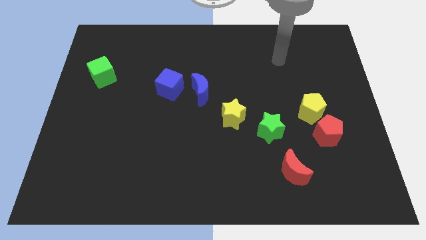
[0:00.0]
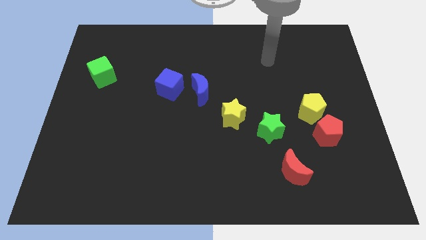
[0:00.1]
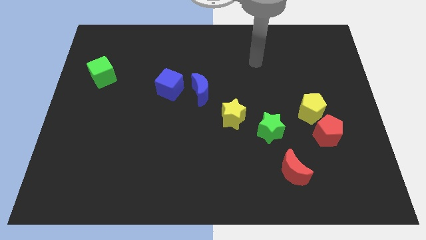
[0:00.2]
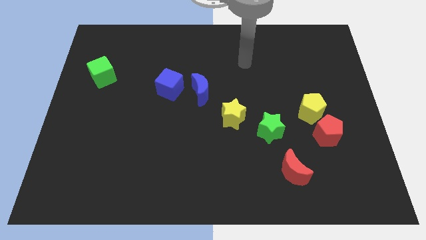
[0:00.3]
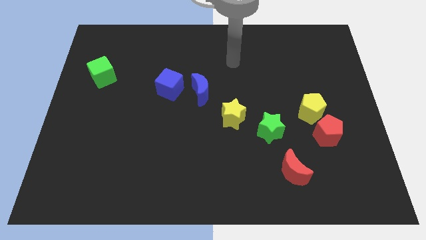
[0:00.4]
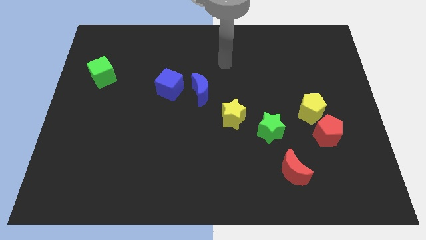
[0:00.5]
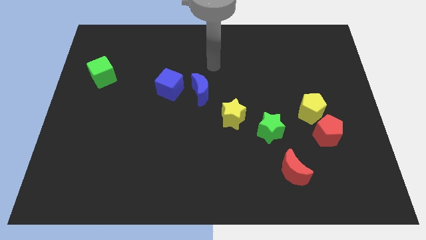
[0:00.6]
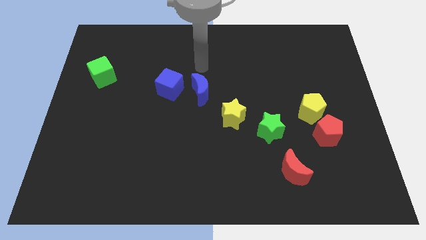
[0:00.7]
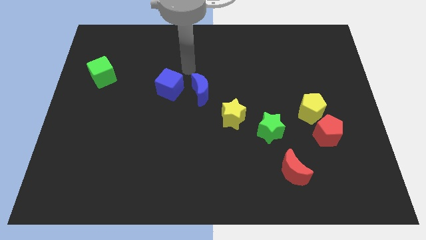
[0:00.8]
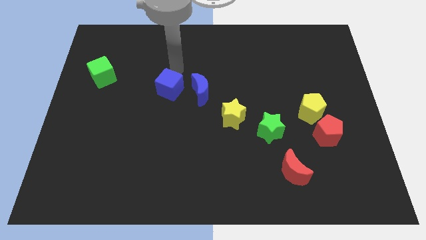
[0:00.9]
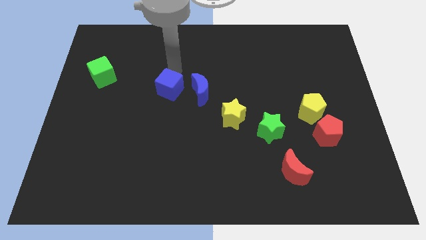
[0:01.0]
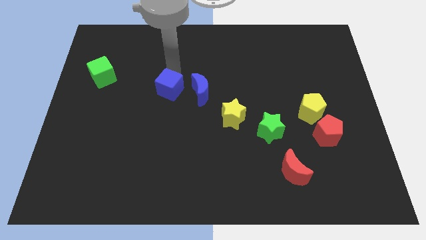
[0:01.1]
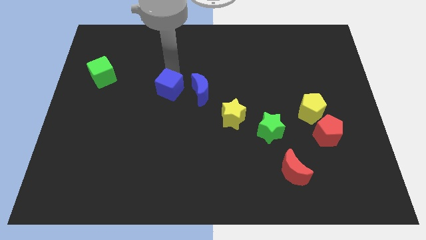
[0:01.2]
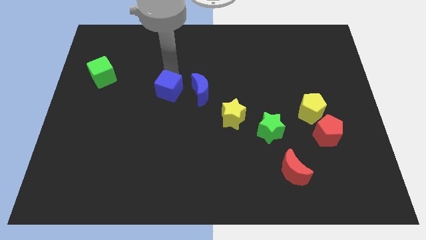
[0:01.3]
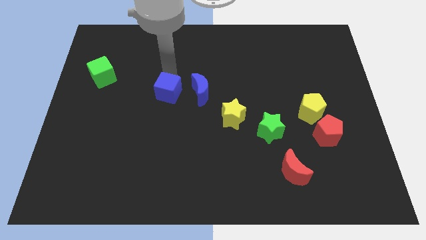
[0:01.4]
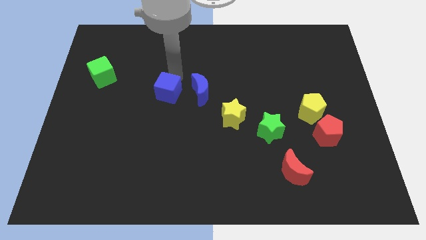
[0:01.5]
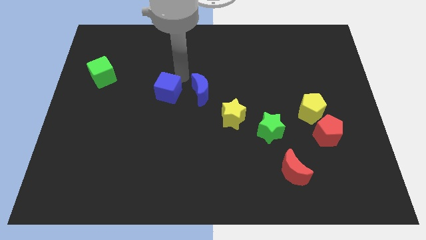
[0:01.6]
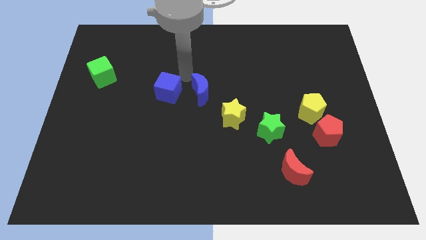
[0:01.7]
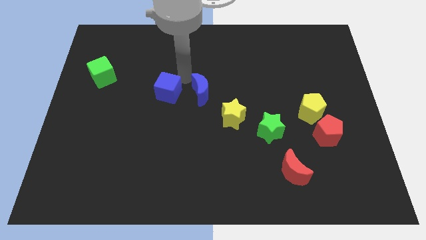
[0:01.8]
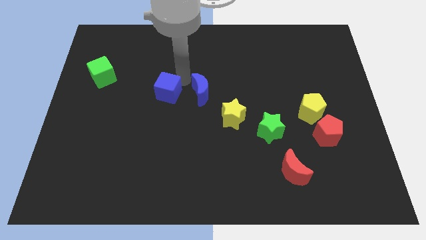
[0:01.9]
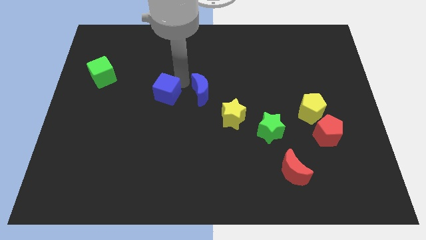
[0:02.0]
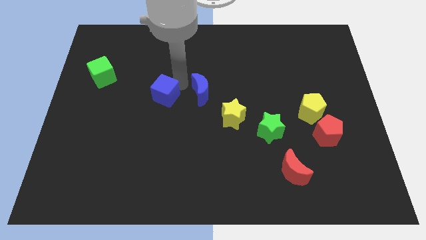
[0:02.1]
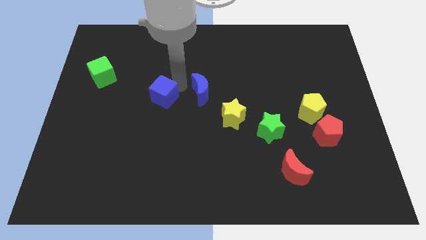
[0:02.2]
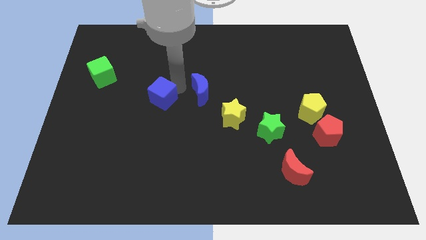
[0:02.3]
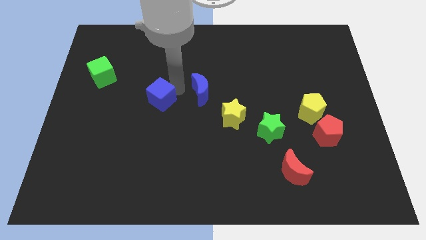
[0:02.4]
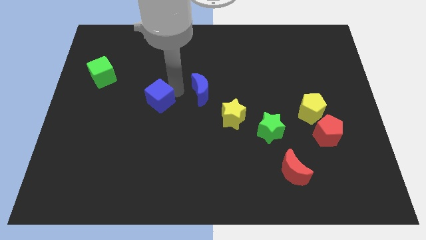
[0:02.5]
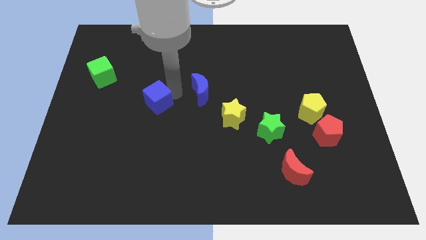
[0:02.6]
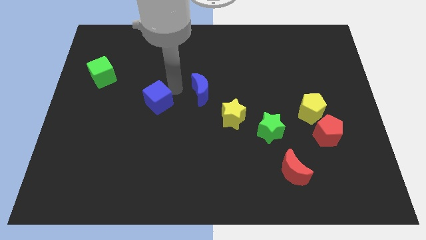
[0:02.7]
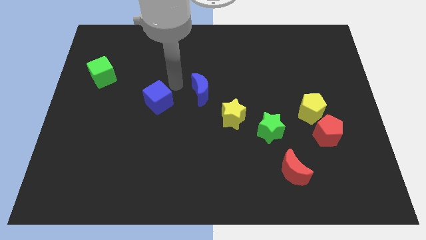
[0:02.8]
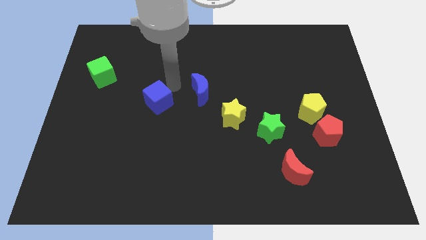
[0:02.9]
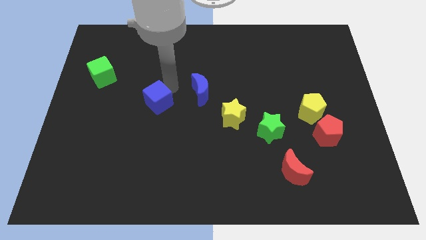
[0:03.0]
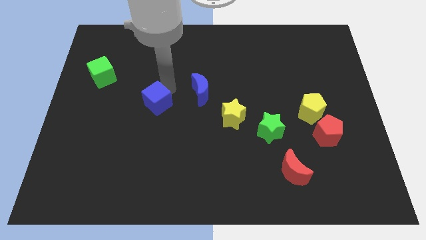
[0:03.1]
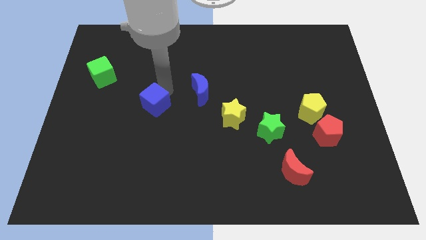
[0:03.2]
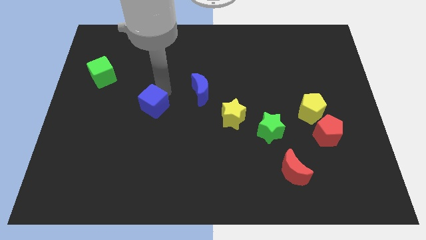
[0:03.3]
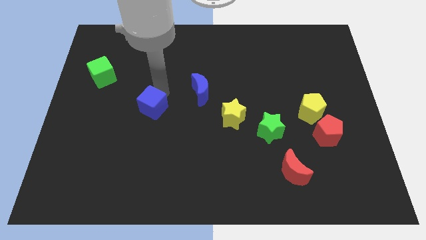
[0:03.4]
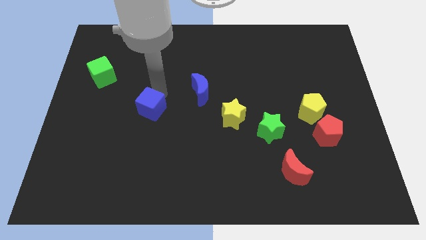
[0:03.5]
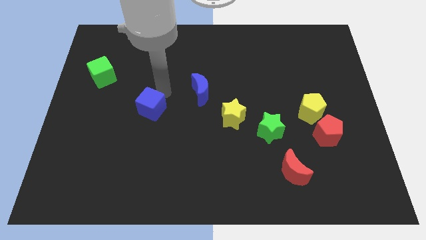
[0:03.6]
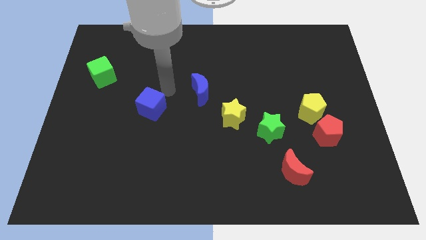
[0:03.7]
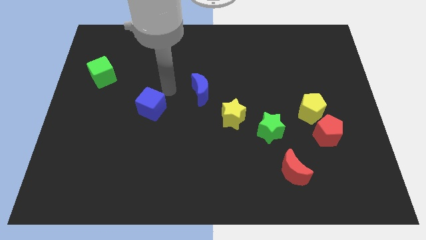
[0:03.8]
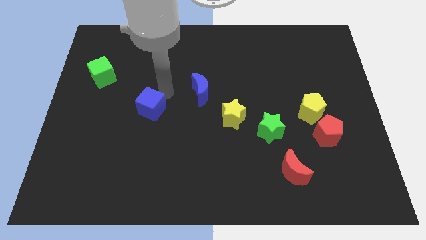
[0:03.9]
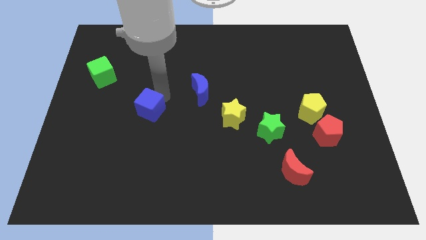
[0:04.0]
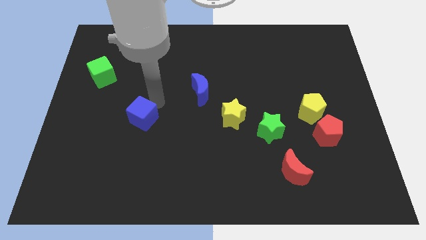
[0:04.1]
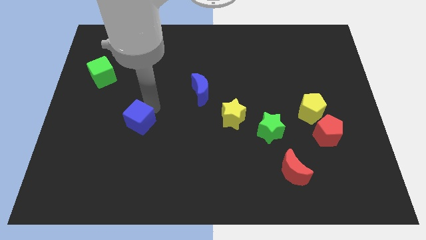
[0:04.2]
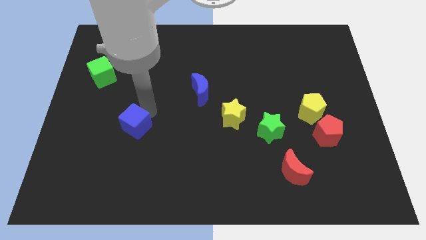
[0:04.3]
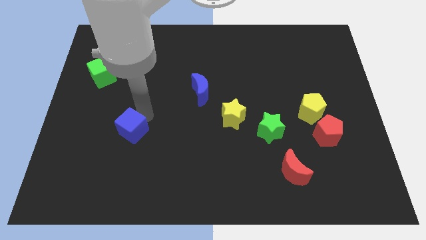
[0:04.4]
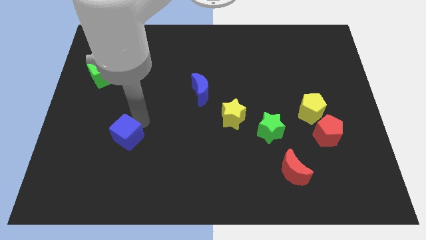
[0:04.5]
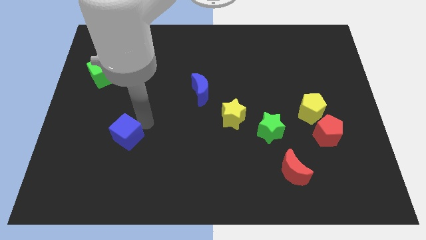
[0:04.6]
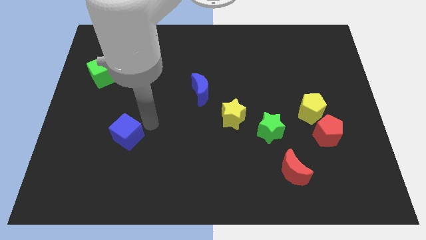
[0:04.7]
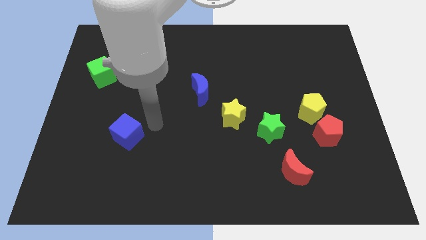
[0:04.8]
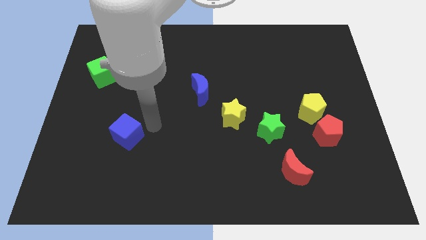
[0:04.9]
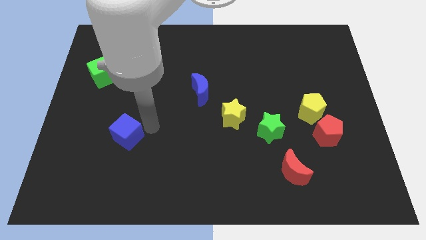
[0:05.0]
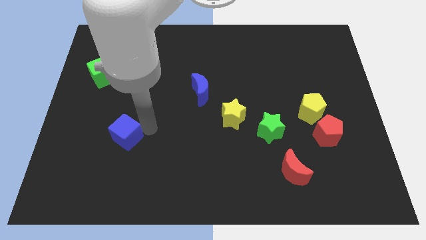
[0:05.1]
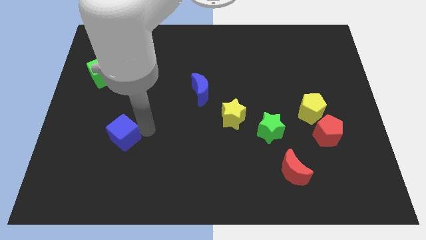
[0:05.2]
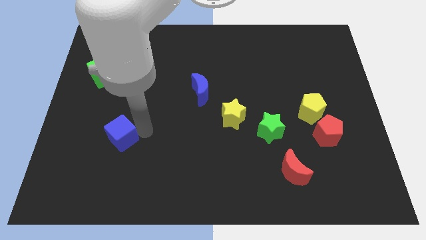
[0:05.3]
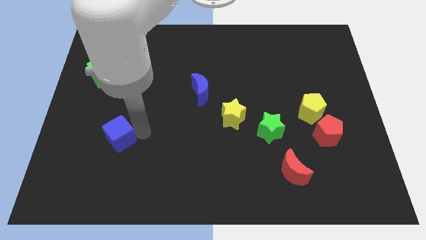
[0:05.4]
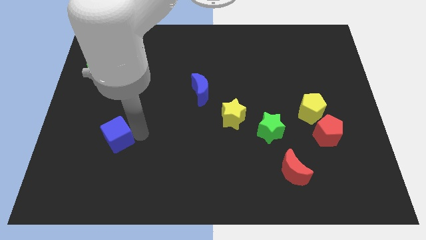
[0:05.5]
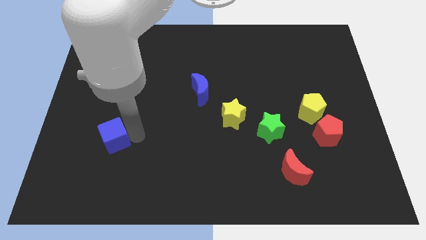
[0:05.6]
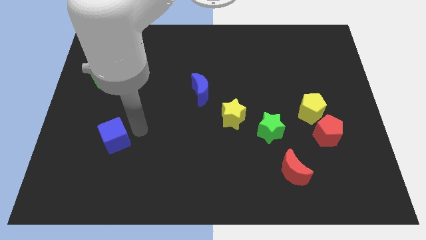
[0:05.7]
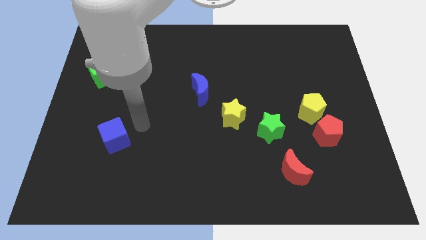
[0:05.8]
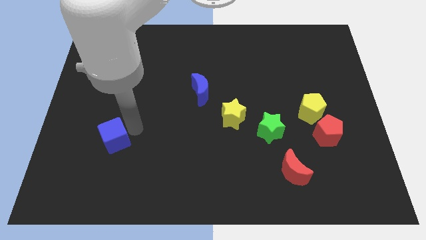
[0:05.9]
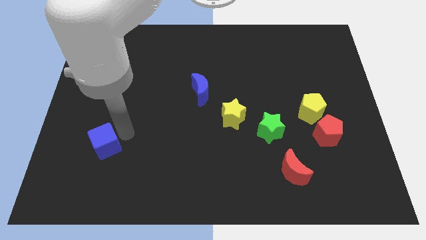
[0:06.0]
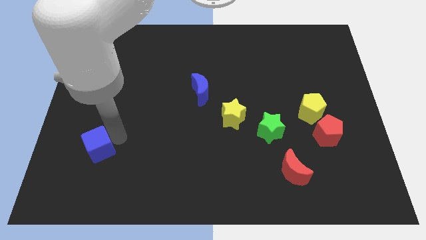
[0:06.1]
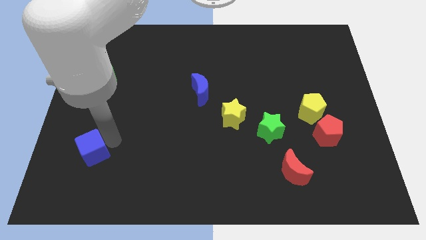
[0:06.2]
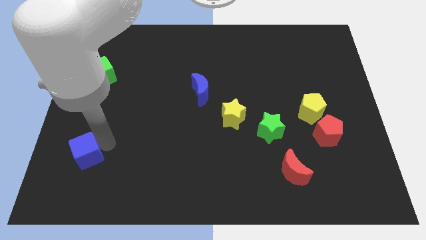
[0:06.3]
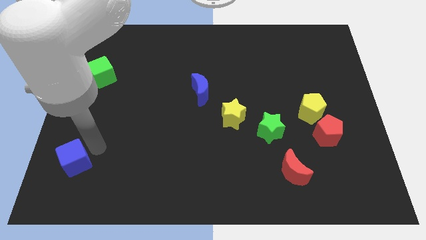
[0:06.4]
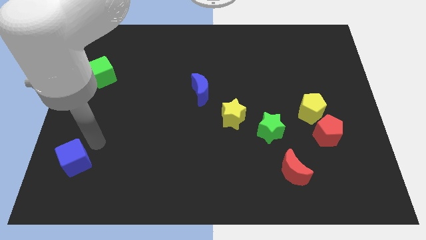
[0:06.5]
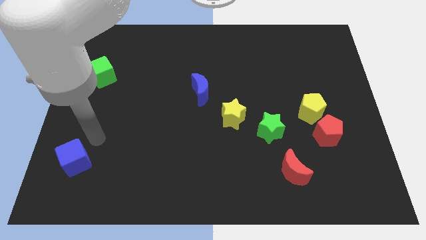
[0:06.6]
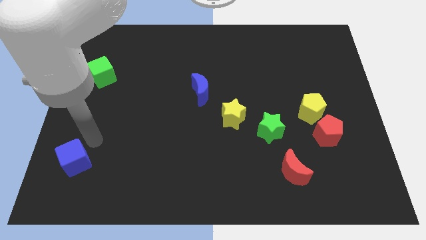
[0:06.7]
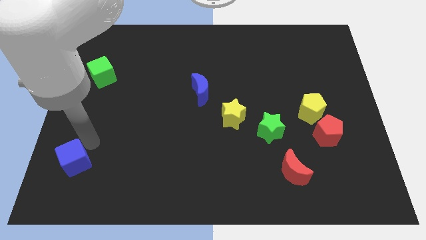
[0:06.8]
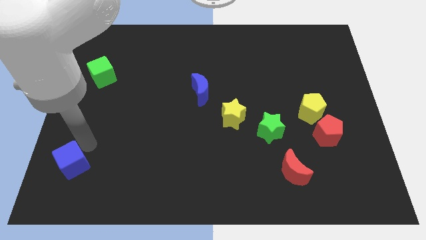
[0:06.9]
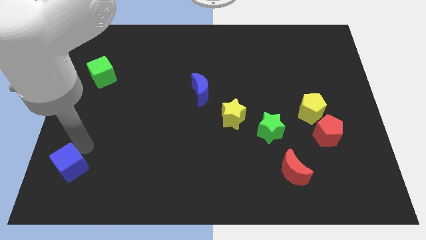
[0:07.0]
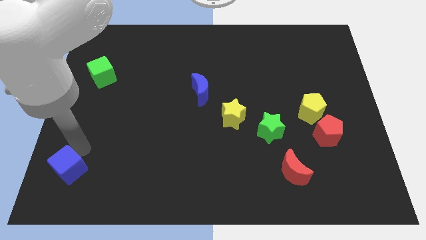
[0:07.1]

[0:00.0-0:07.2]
push the blue cube to the lower left corner

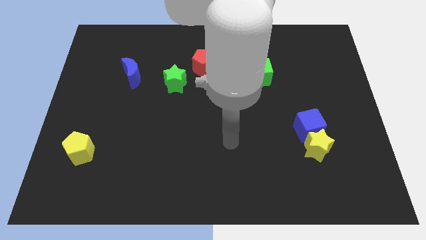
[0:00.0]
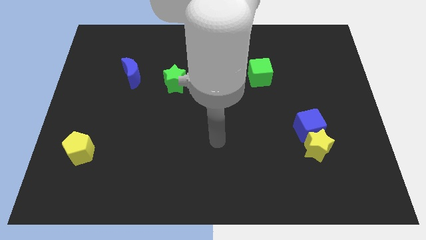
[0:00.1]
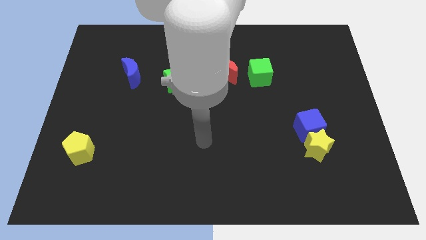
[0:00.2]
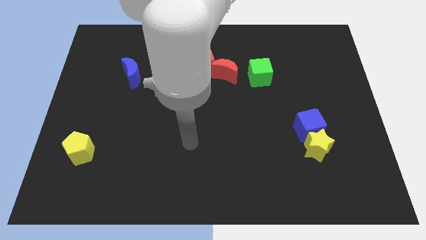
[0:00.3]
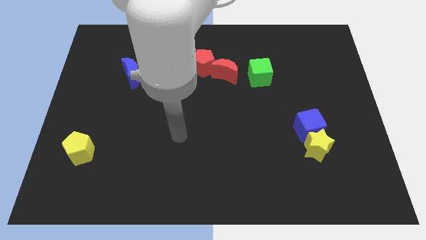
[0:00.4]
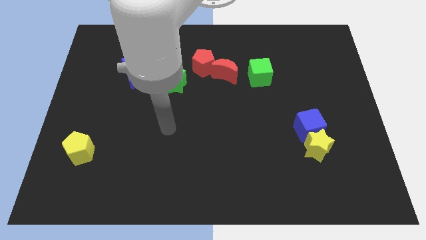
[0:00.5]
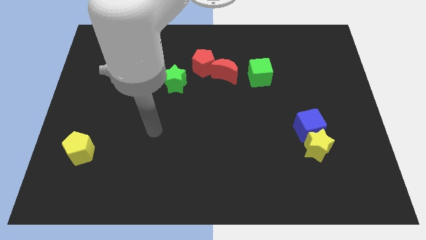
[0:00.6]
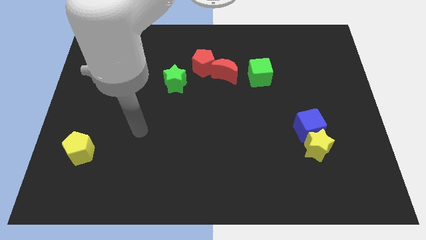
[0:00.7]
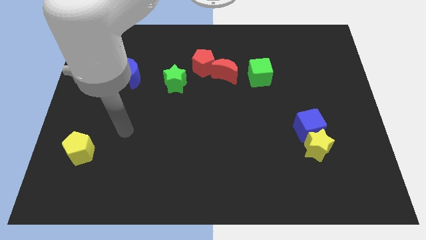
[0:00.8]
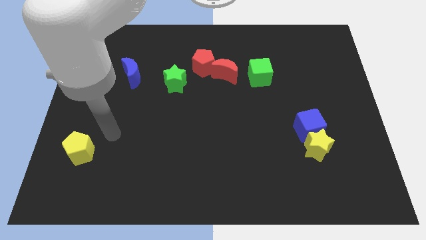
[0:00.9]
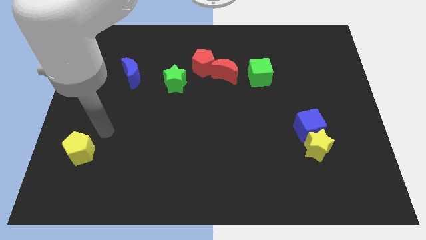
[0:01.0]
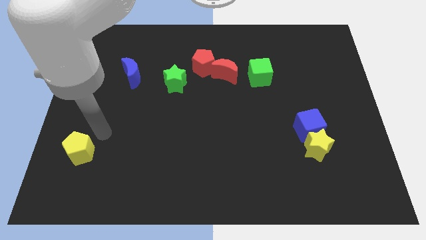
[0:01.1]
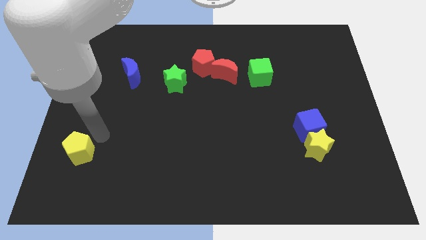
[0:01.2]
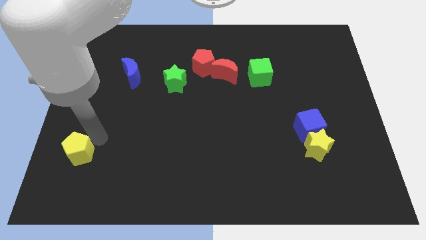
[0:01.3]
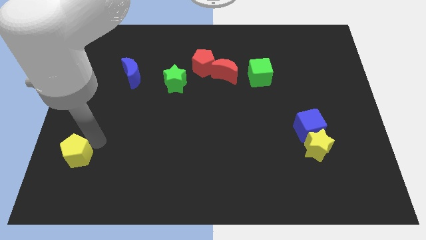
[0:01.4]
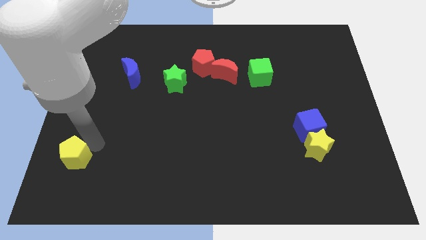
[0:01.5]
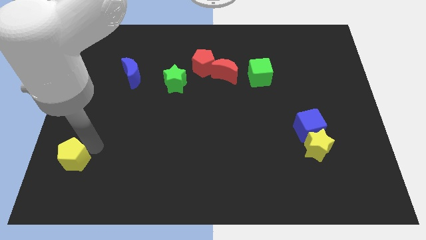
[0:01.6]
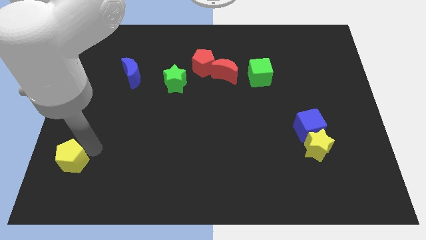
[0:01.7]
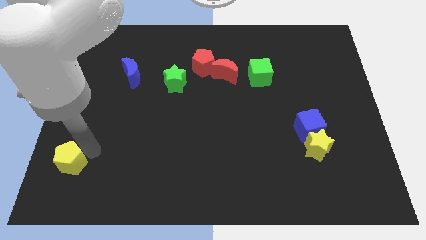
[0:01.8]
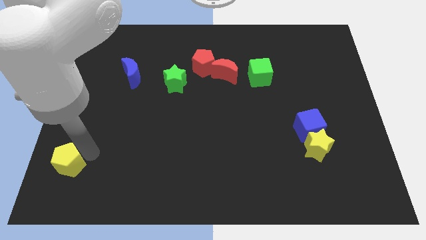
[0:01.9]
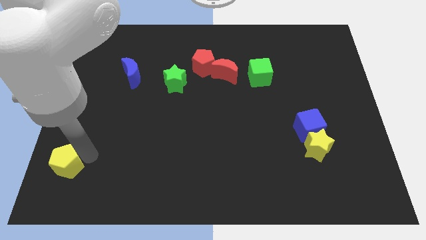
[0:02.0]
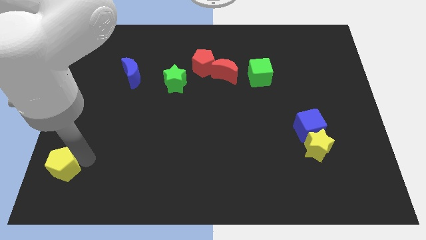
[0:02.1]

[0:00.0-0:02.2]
put the yellow pentagon to the bottom left of the board
